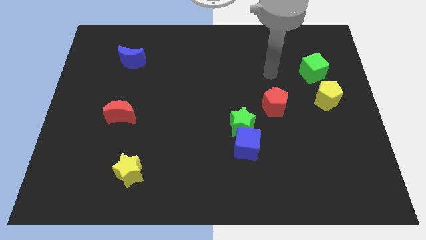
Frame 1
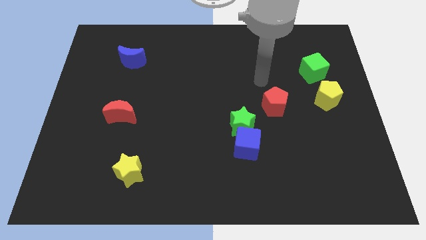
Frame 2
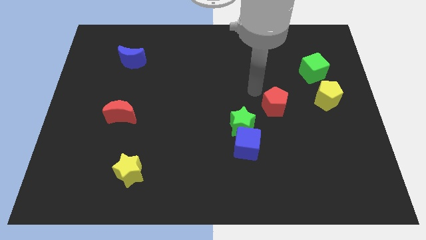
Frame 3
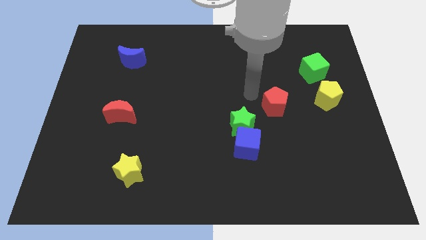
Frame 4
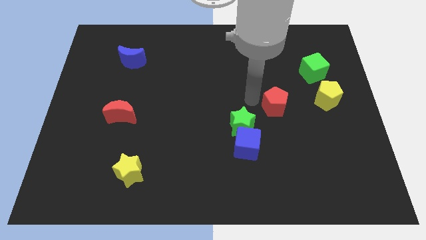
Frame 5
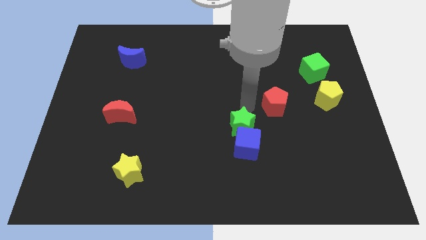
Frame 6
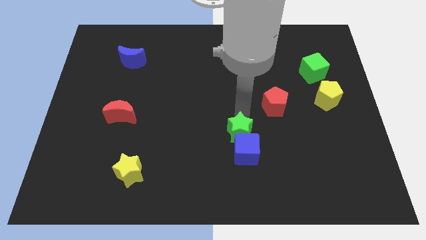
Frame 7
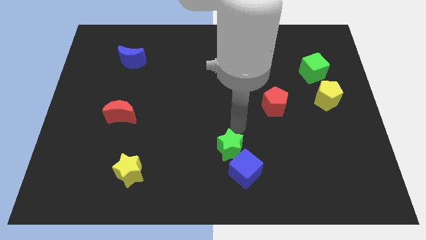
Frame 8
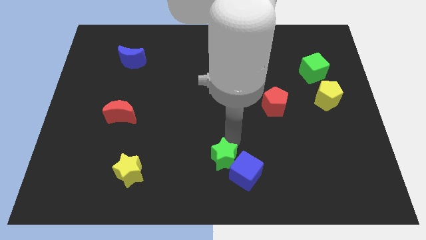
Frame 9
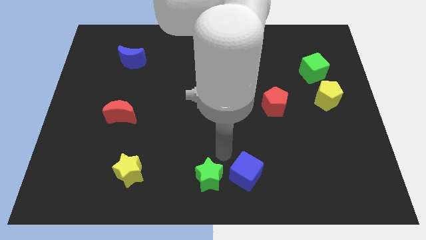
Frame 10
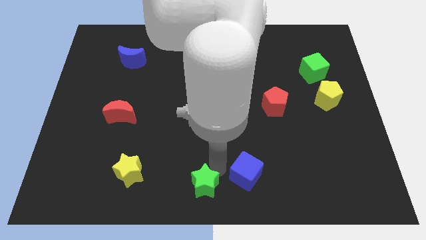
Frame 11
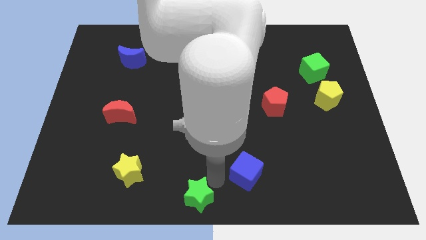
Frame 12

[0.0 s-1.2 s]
pull the blue cube apart from the green star

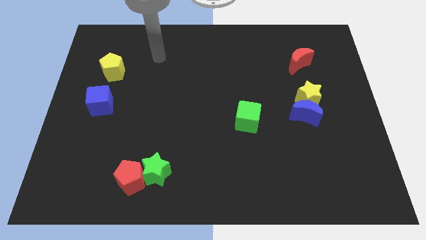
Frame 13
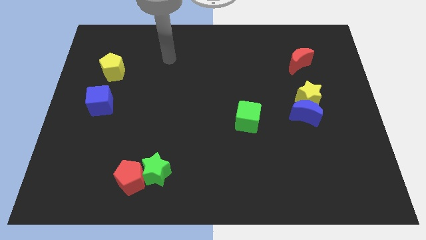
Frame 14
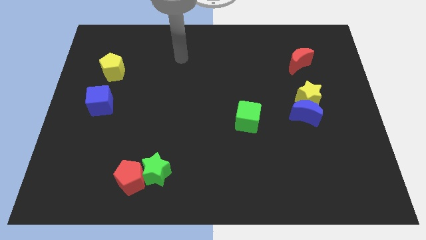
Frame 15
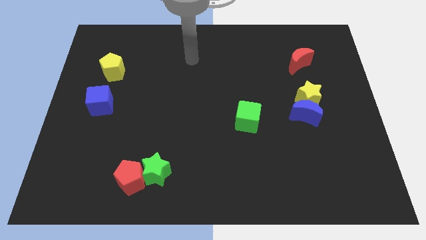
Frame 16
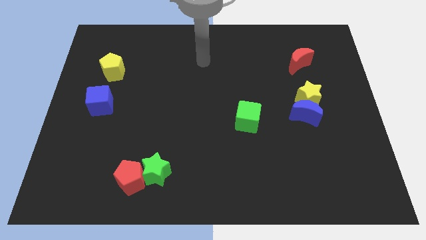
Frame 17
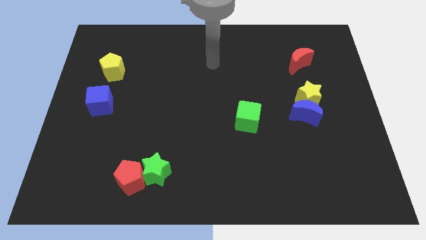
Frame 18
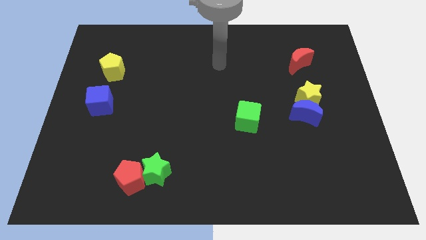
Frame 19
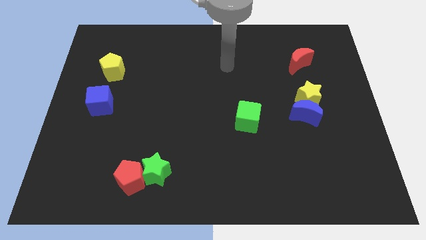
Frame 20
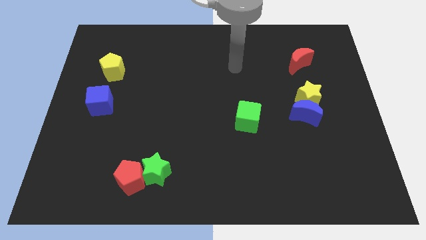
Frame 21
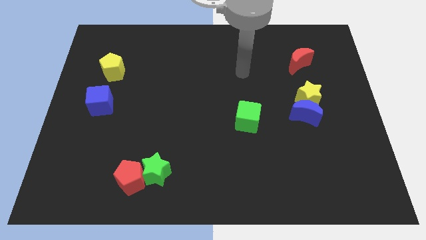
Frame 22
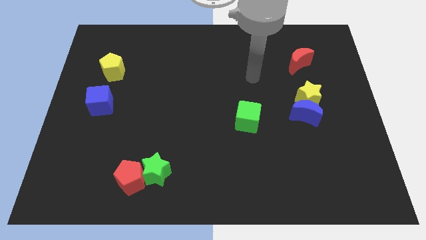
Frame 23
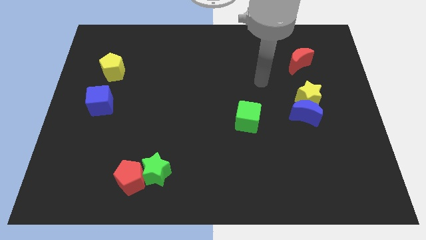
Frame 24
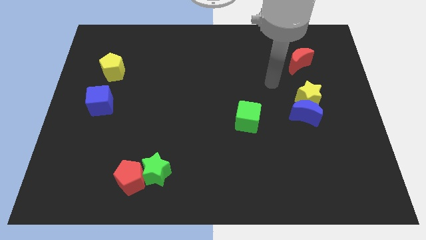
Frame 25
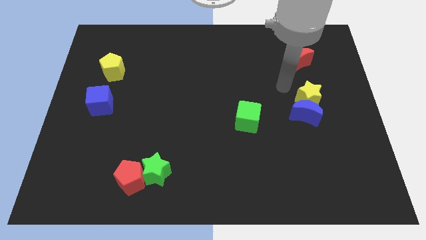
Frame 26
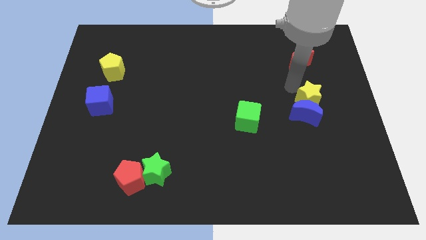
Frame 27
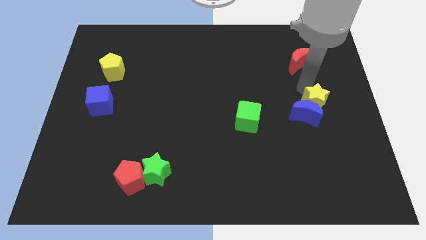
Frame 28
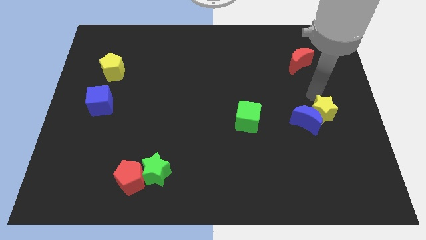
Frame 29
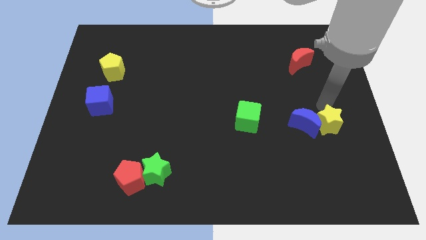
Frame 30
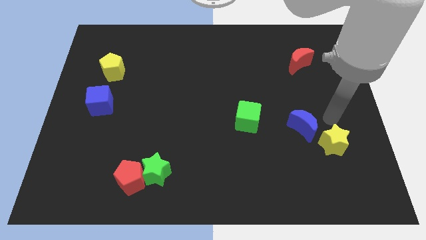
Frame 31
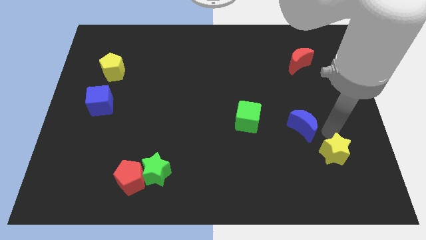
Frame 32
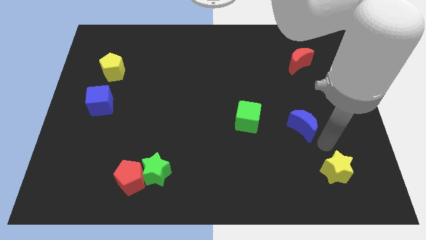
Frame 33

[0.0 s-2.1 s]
pull the blue moon apart from the yellow star

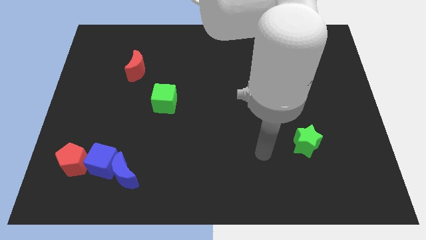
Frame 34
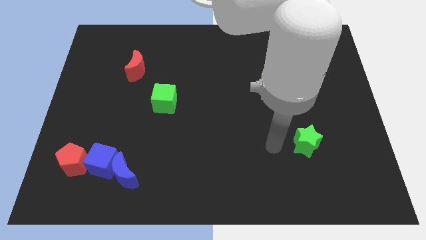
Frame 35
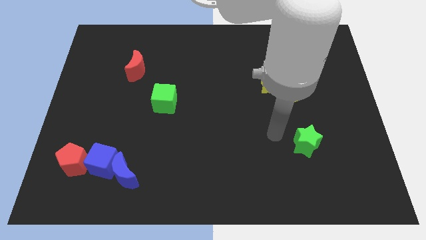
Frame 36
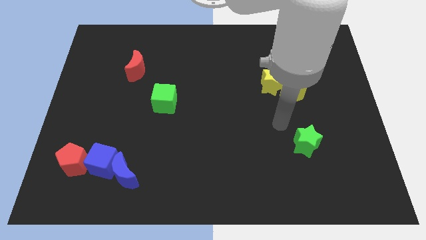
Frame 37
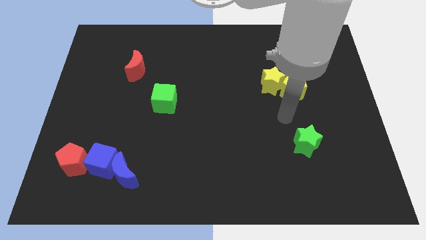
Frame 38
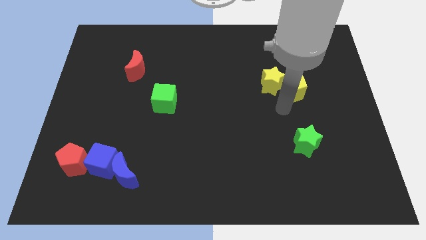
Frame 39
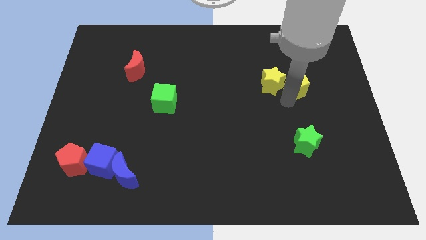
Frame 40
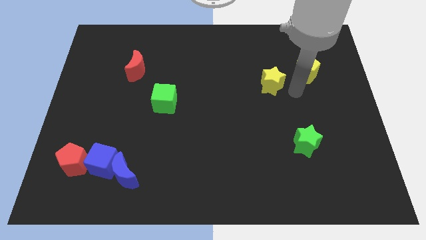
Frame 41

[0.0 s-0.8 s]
move the yellow star away from the yellow pentagon

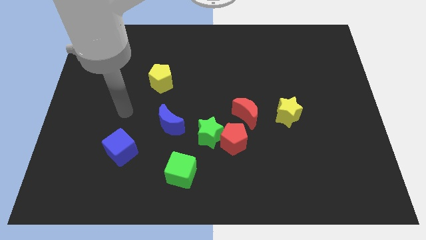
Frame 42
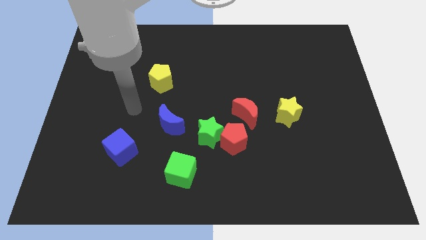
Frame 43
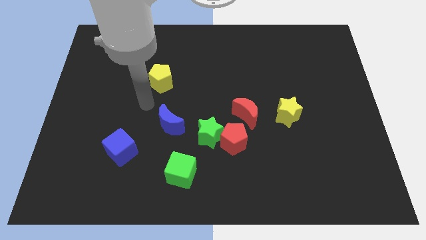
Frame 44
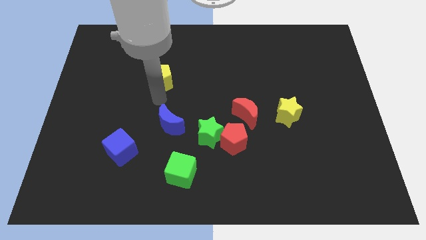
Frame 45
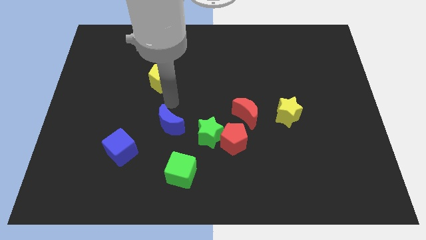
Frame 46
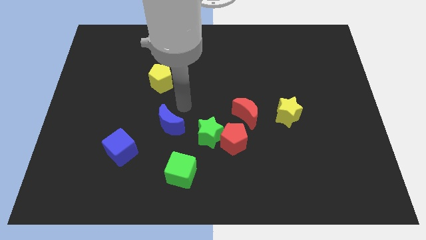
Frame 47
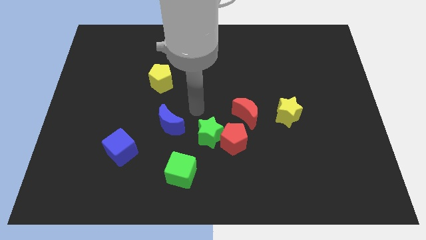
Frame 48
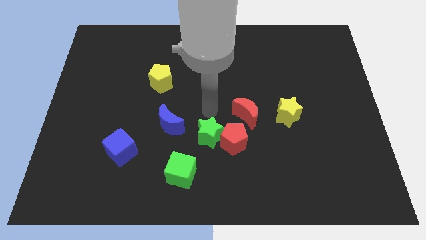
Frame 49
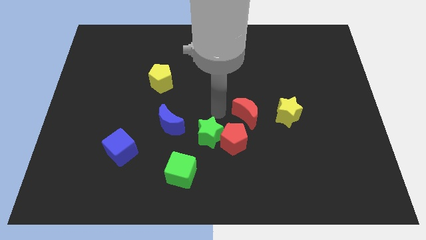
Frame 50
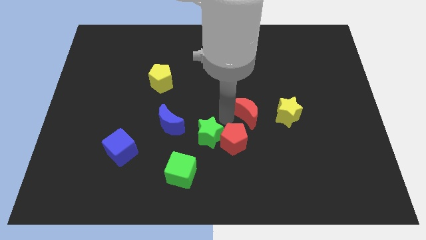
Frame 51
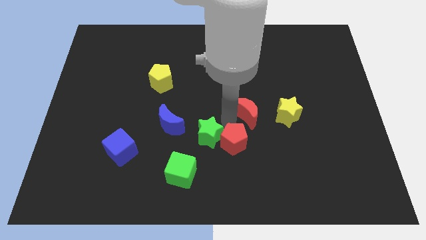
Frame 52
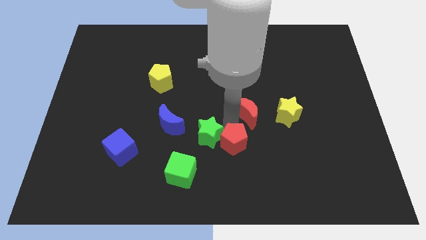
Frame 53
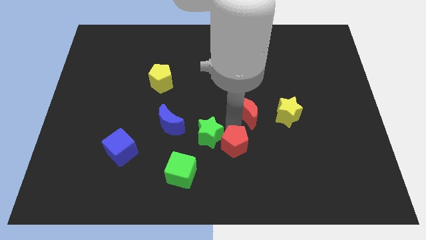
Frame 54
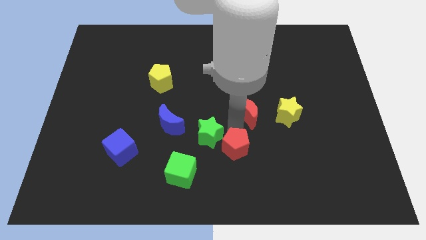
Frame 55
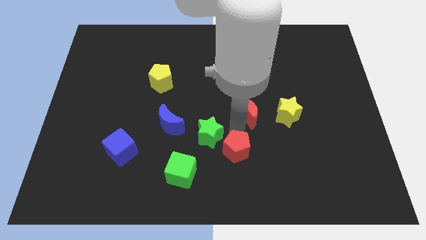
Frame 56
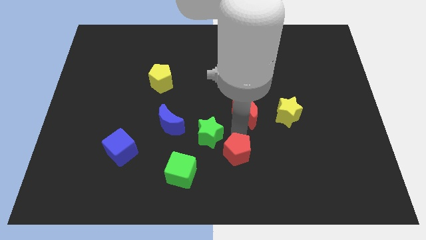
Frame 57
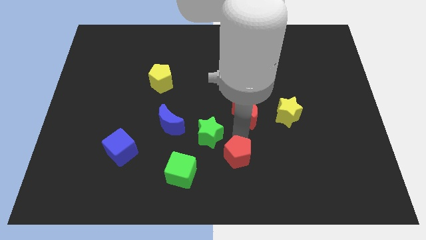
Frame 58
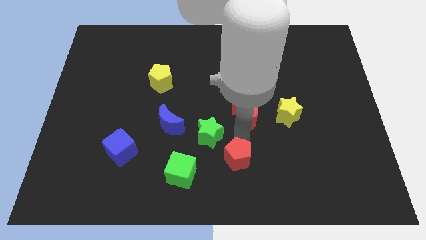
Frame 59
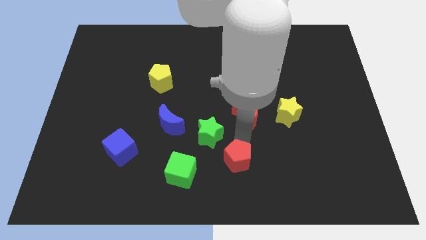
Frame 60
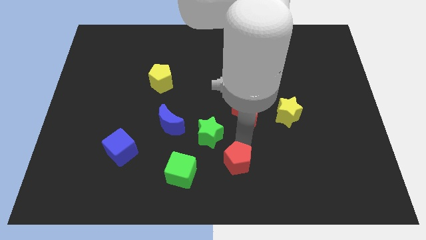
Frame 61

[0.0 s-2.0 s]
move the red pentagon away from the green star and red moon

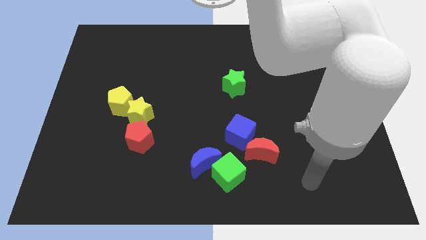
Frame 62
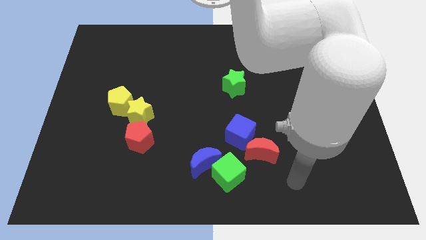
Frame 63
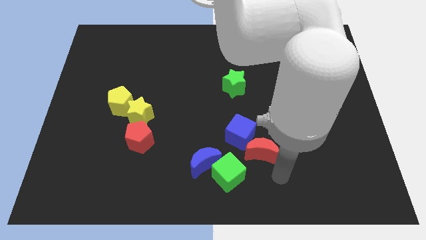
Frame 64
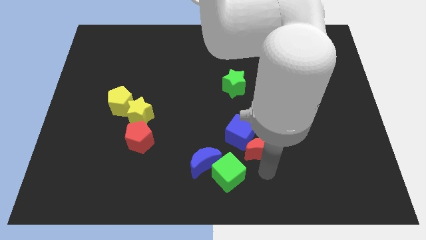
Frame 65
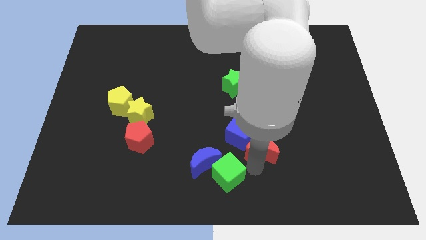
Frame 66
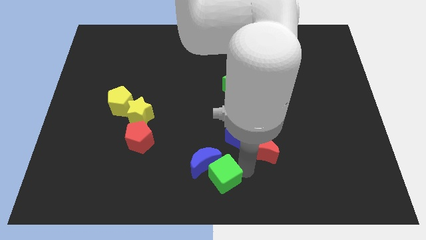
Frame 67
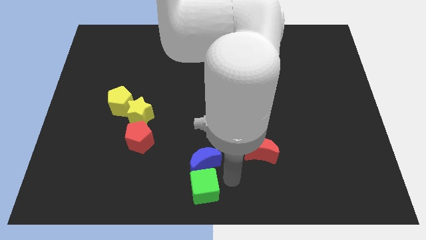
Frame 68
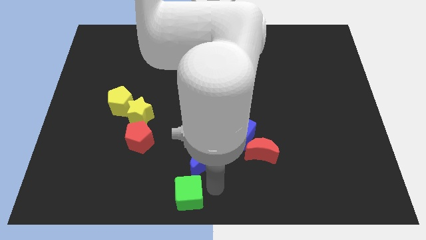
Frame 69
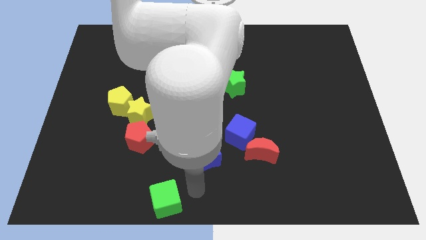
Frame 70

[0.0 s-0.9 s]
move the blue moon away from the green cube

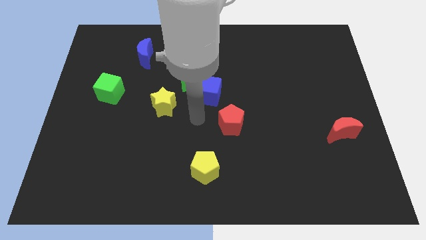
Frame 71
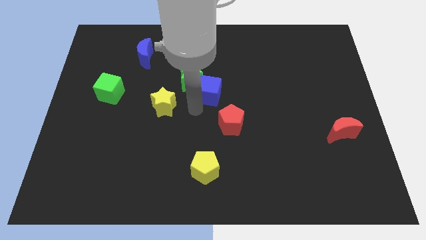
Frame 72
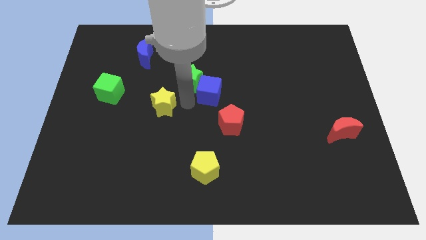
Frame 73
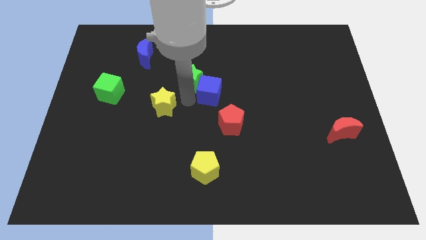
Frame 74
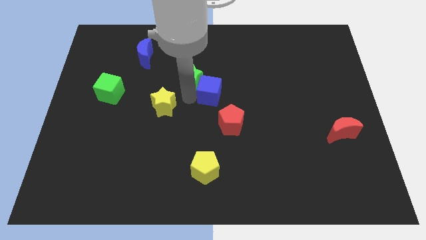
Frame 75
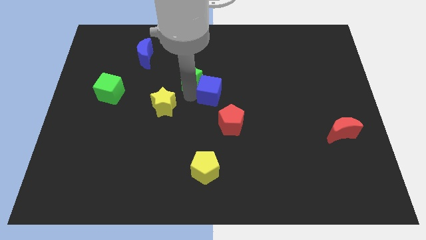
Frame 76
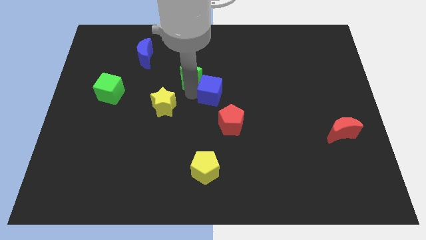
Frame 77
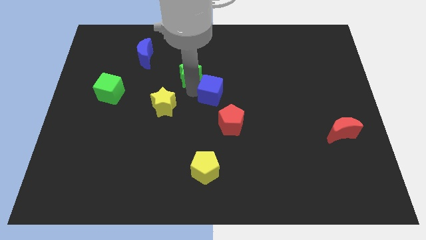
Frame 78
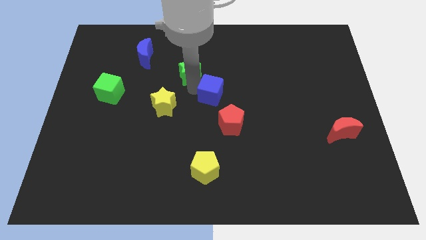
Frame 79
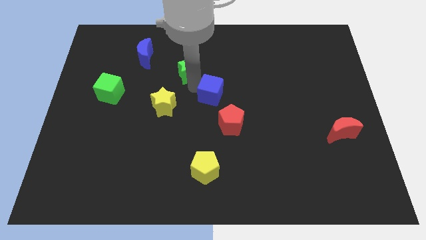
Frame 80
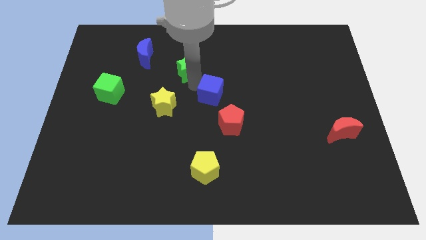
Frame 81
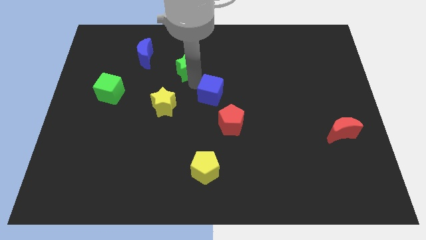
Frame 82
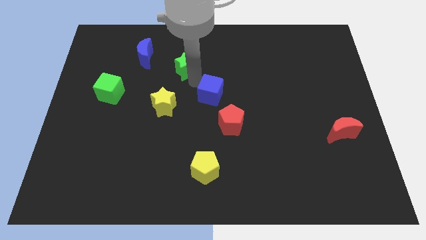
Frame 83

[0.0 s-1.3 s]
pull the green star apart from the blue cube and yellow star

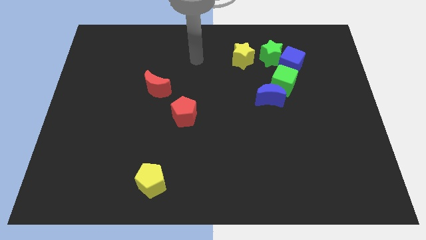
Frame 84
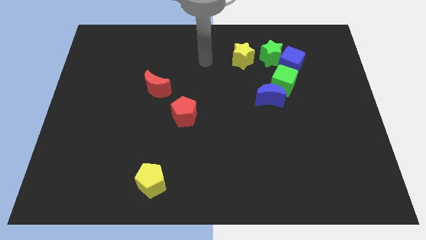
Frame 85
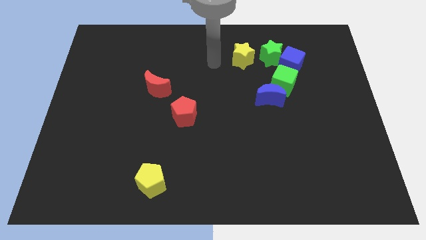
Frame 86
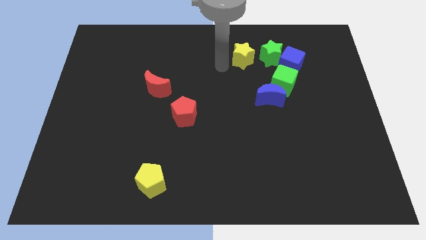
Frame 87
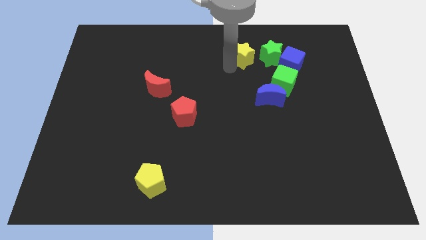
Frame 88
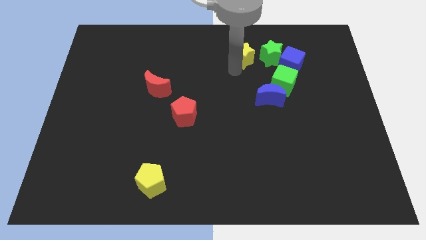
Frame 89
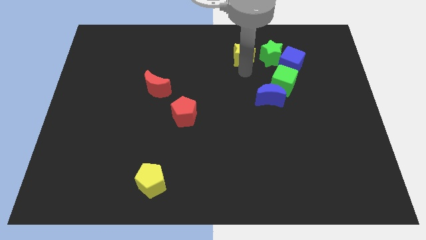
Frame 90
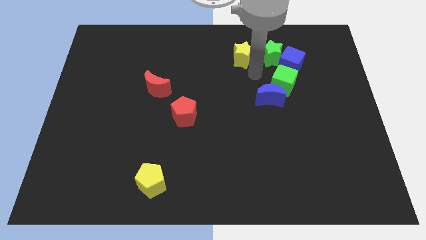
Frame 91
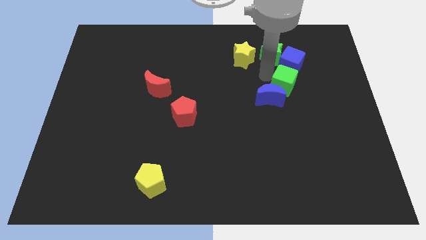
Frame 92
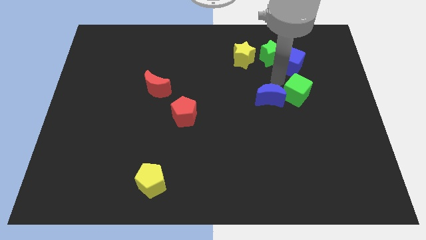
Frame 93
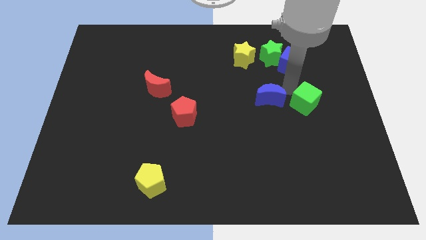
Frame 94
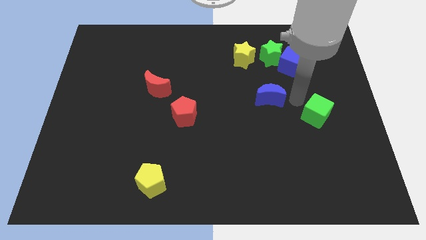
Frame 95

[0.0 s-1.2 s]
pull the blue moon apart from the green cube
